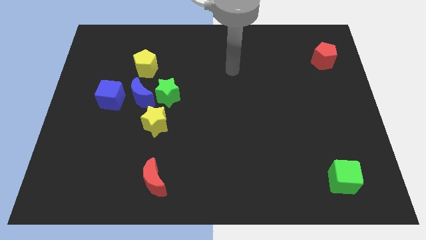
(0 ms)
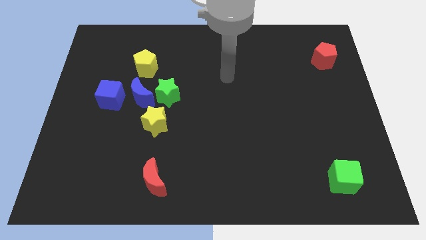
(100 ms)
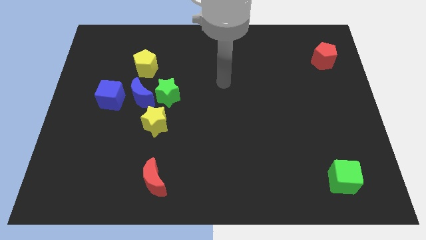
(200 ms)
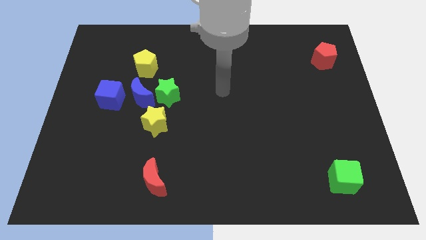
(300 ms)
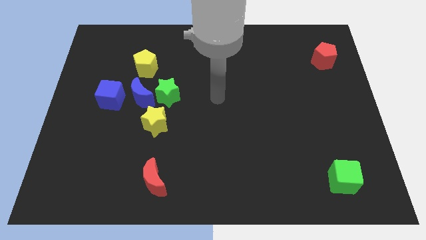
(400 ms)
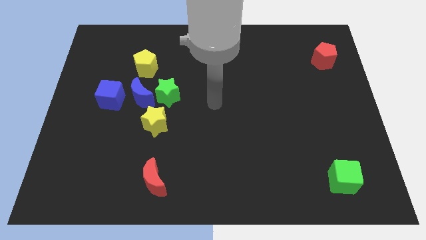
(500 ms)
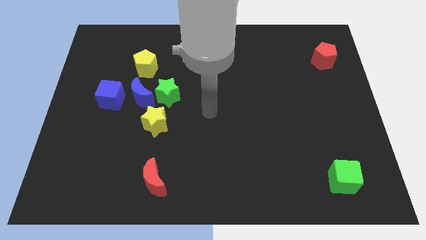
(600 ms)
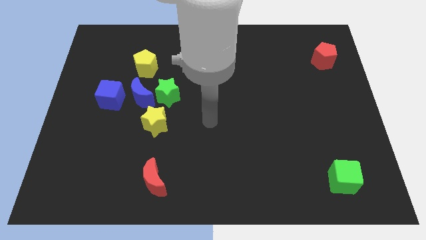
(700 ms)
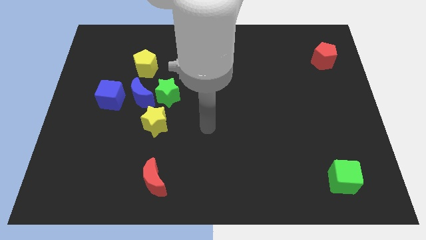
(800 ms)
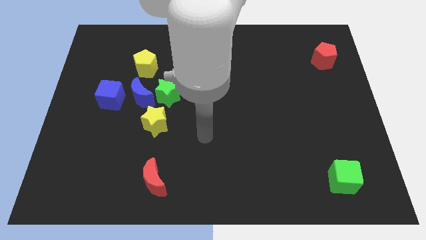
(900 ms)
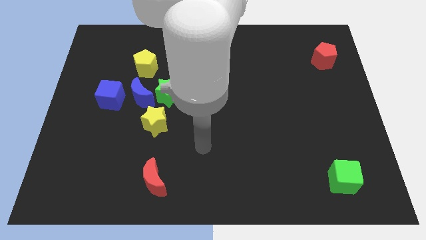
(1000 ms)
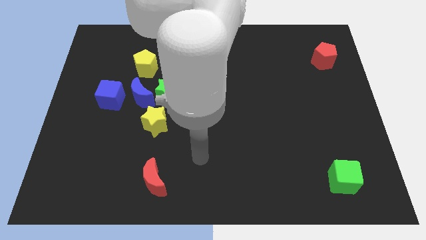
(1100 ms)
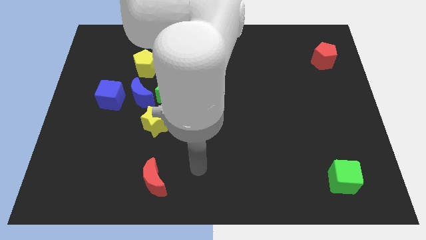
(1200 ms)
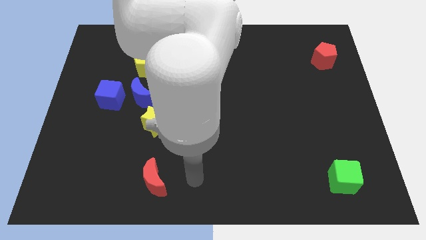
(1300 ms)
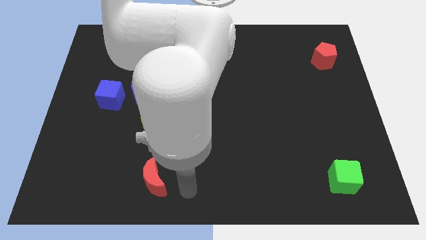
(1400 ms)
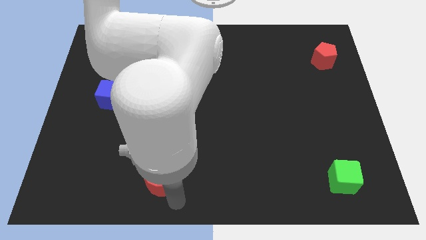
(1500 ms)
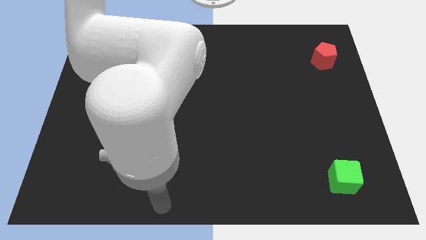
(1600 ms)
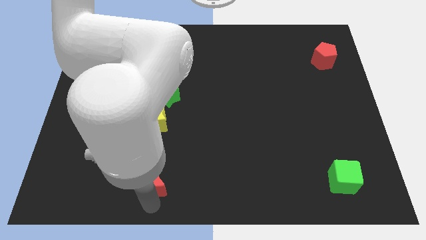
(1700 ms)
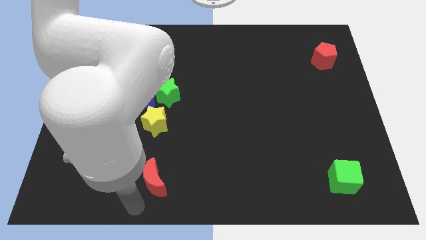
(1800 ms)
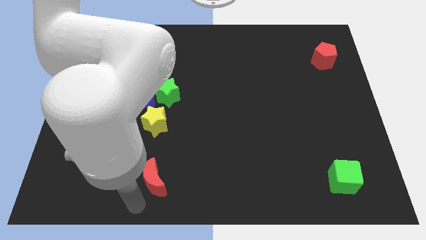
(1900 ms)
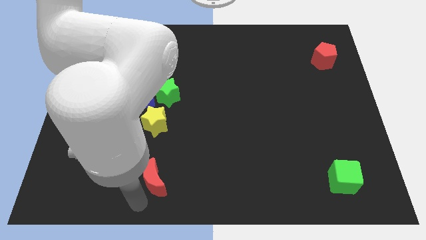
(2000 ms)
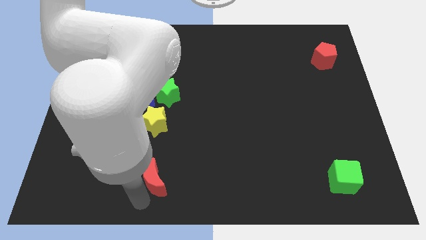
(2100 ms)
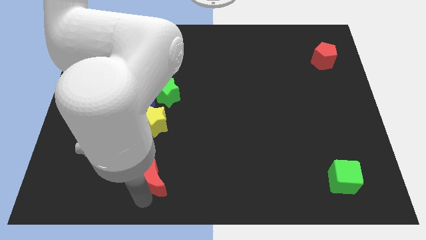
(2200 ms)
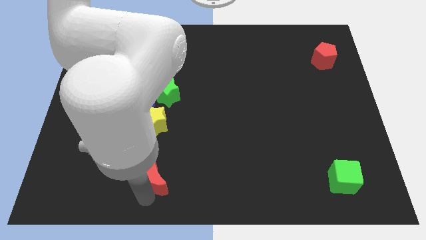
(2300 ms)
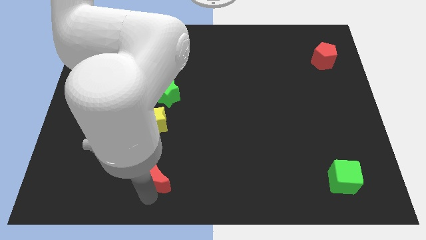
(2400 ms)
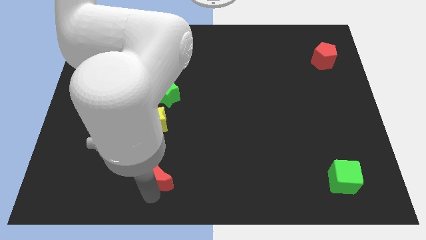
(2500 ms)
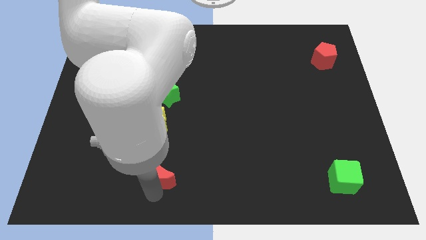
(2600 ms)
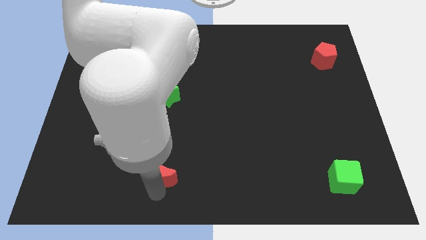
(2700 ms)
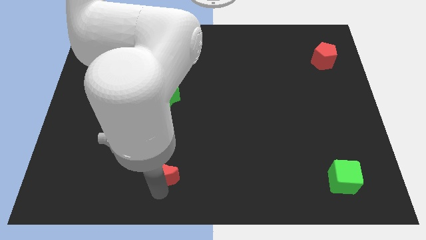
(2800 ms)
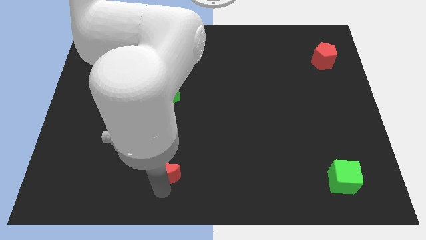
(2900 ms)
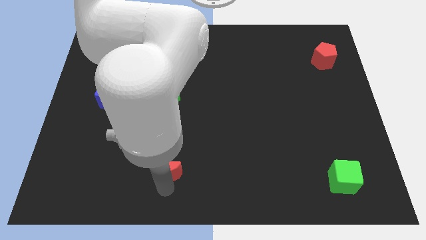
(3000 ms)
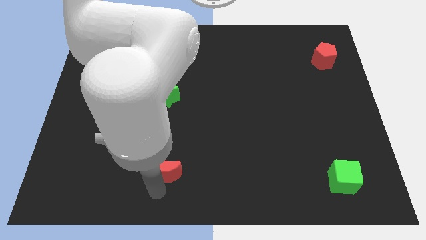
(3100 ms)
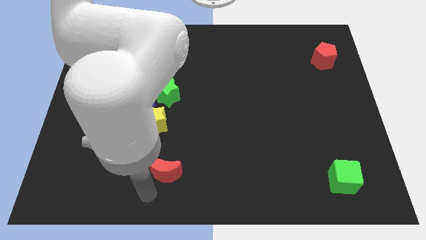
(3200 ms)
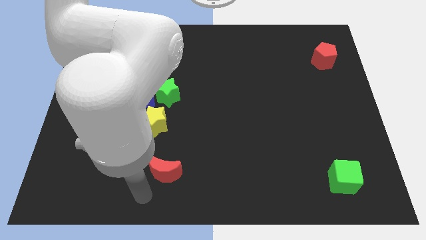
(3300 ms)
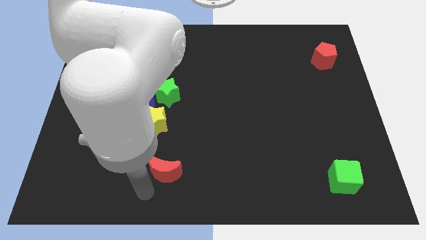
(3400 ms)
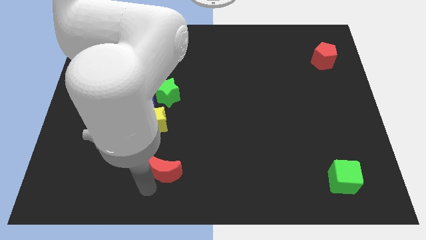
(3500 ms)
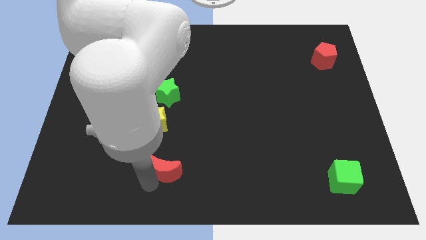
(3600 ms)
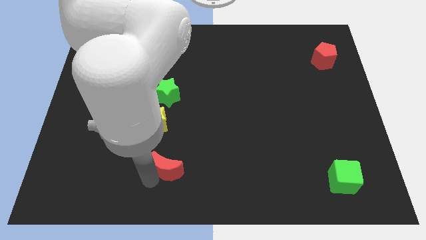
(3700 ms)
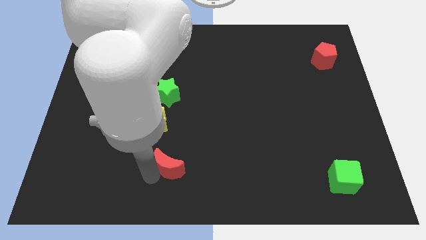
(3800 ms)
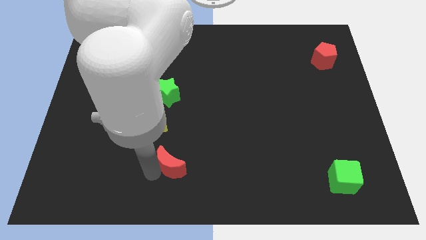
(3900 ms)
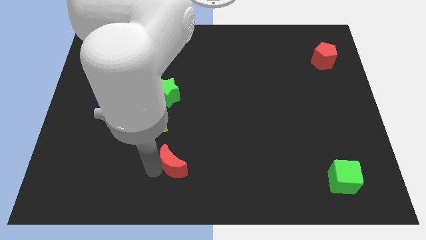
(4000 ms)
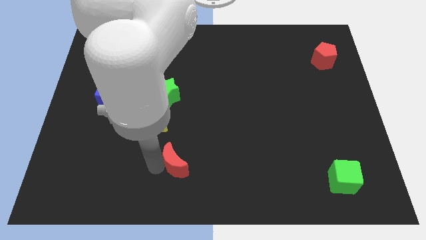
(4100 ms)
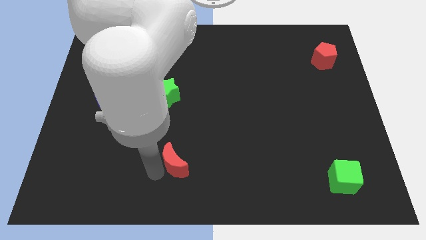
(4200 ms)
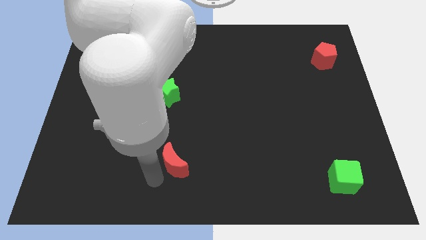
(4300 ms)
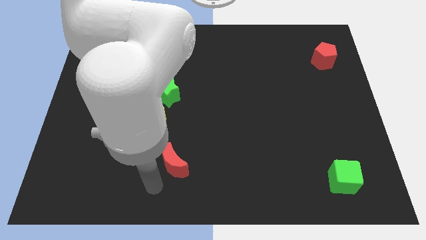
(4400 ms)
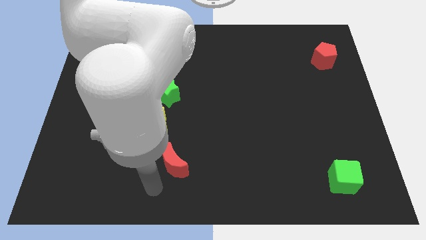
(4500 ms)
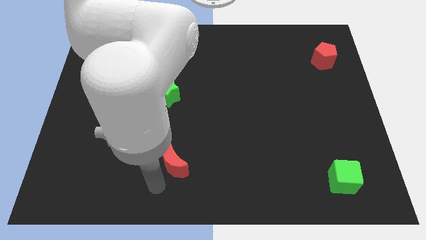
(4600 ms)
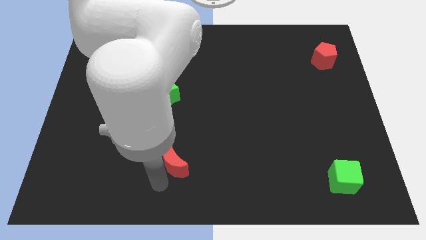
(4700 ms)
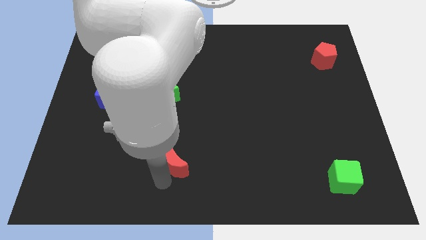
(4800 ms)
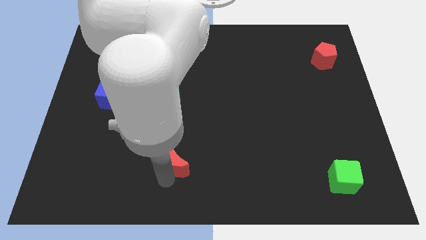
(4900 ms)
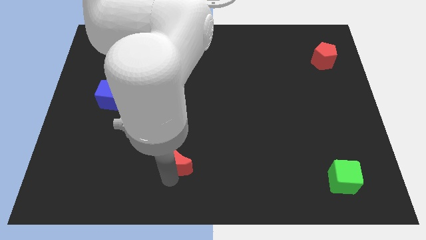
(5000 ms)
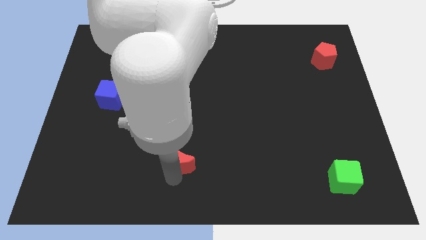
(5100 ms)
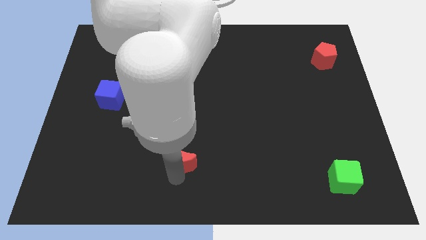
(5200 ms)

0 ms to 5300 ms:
move the red moon up and then to the right a little bit

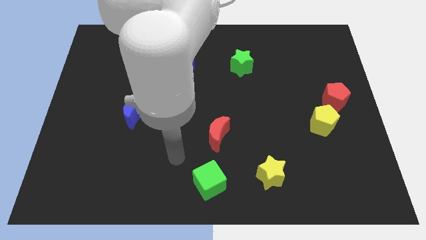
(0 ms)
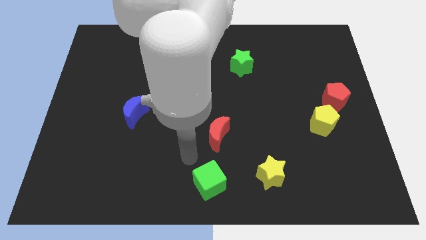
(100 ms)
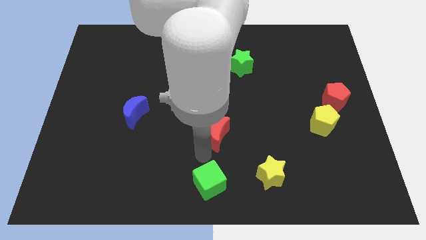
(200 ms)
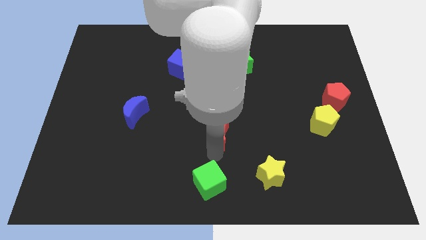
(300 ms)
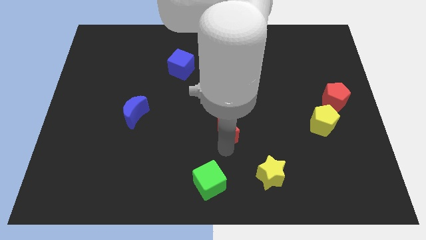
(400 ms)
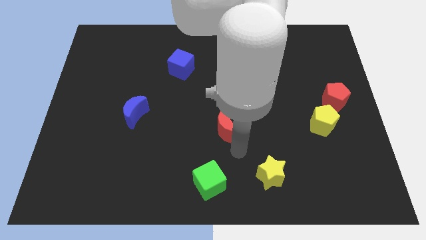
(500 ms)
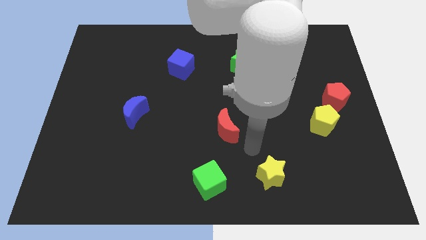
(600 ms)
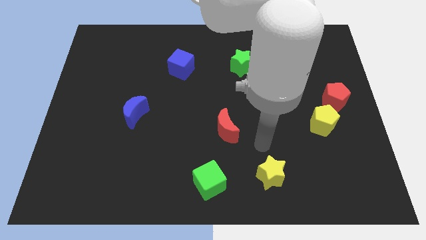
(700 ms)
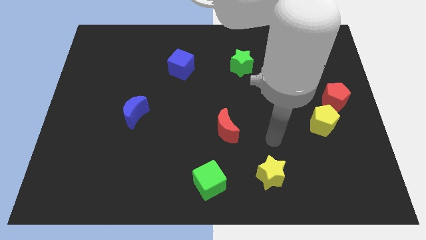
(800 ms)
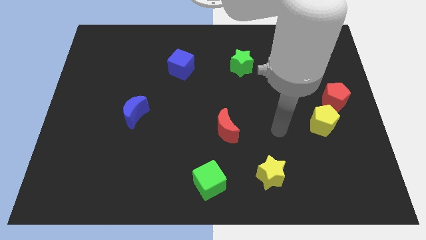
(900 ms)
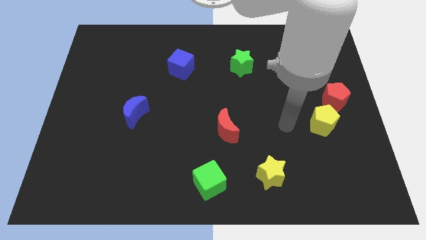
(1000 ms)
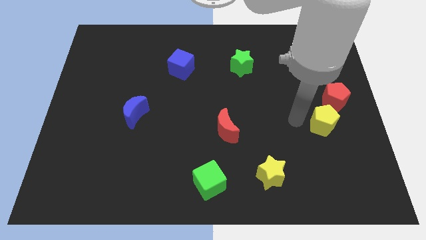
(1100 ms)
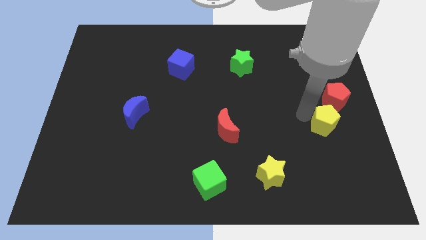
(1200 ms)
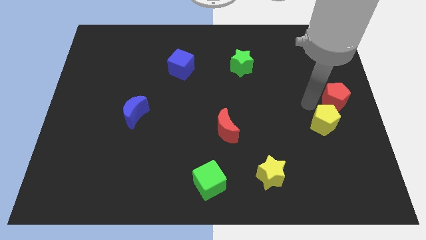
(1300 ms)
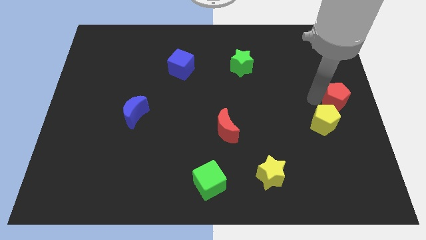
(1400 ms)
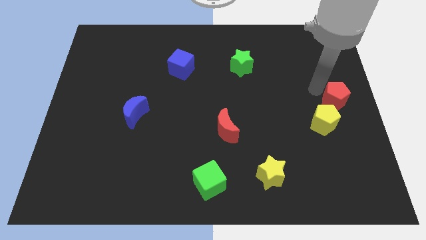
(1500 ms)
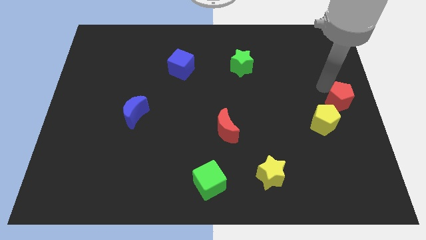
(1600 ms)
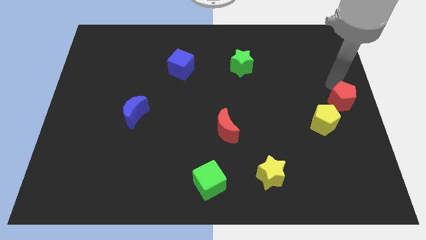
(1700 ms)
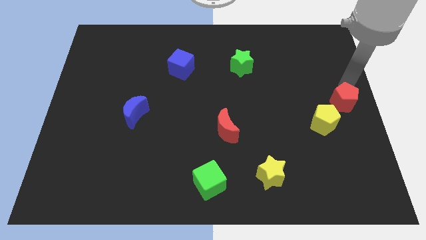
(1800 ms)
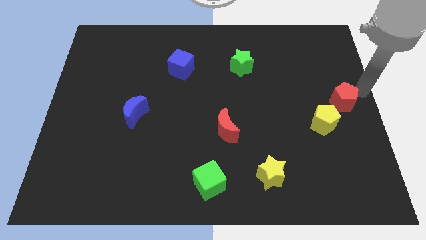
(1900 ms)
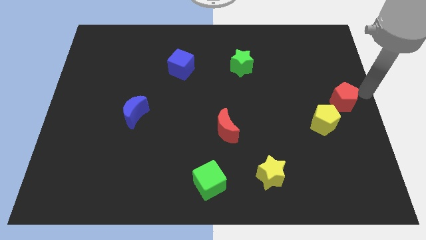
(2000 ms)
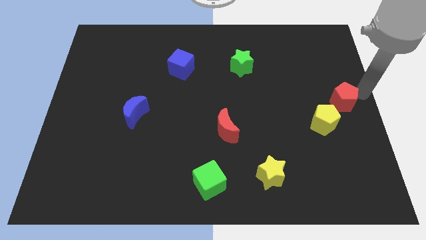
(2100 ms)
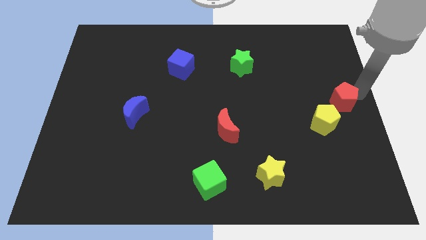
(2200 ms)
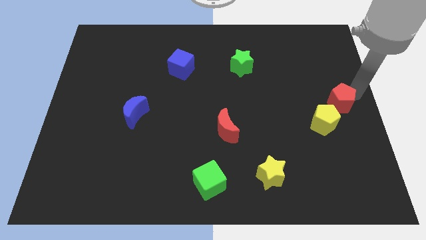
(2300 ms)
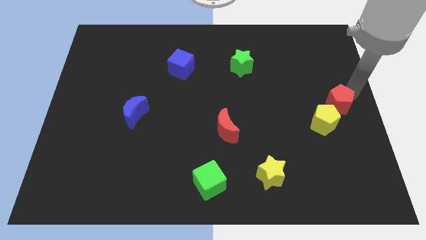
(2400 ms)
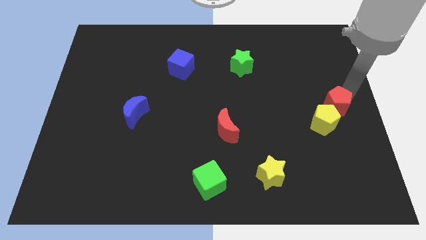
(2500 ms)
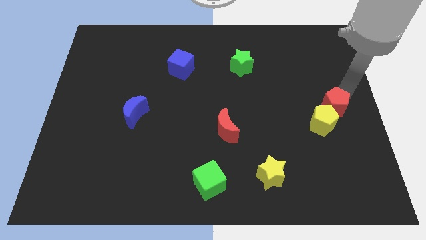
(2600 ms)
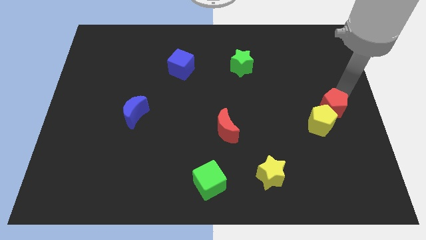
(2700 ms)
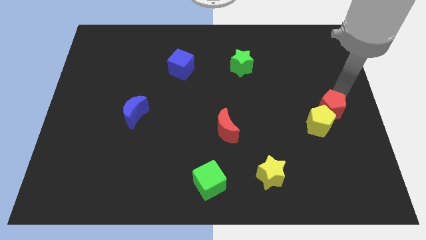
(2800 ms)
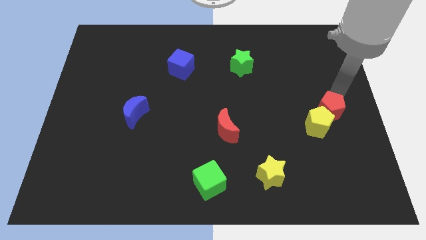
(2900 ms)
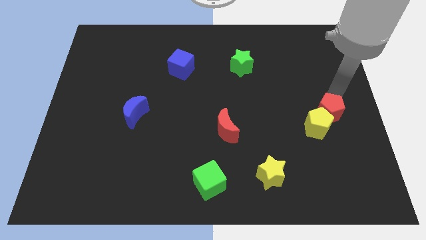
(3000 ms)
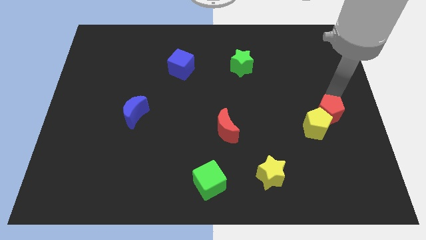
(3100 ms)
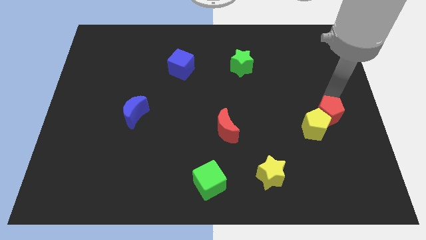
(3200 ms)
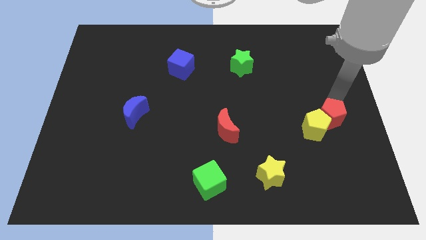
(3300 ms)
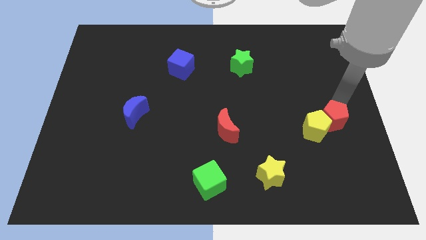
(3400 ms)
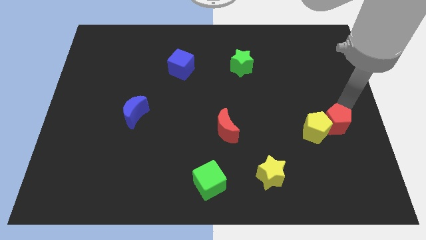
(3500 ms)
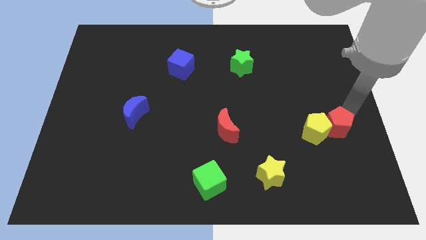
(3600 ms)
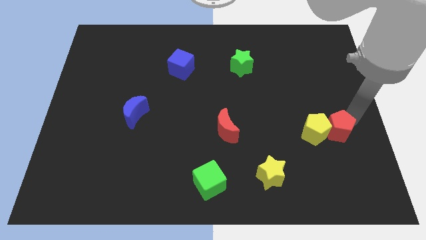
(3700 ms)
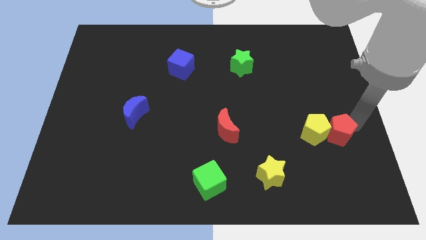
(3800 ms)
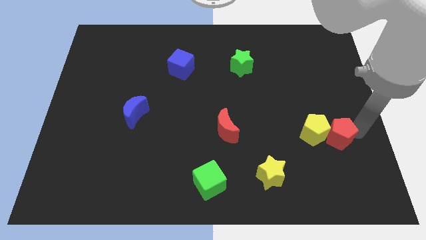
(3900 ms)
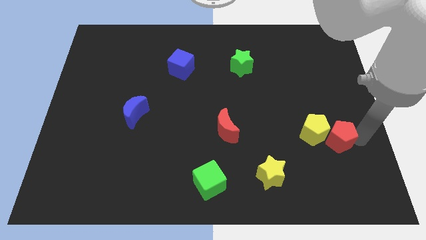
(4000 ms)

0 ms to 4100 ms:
push the red pentagon down and then to the left a little bit
